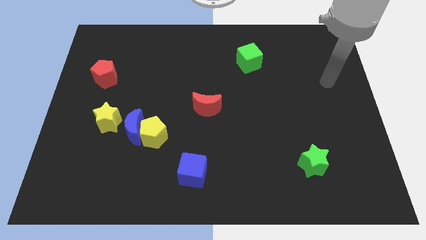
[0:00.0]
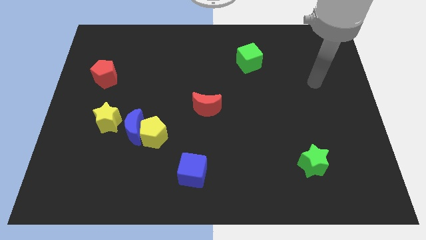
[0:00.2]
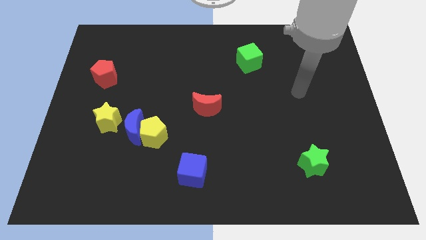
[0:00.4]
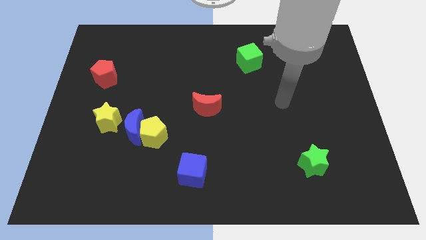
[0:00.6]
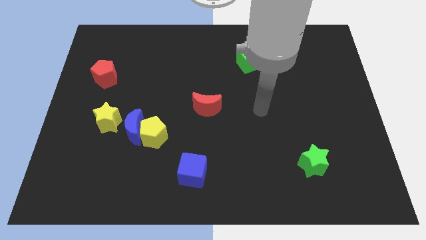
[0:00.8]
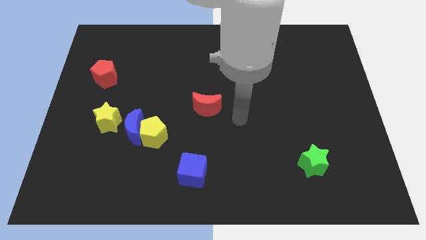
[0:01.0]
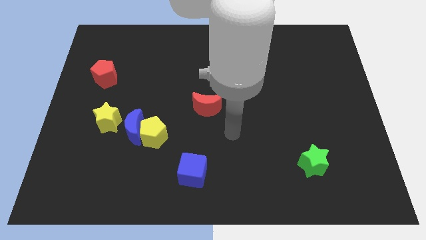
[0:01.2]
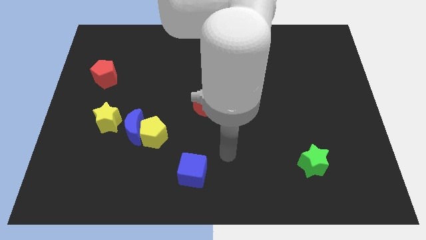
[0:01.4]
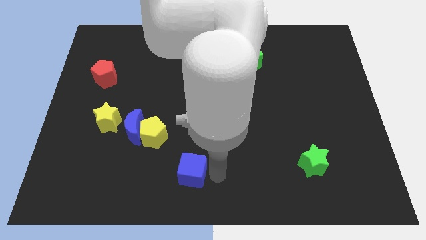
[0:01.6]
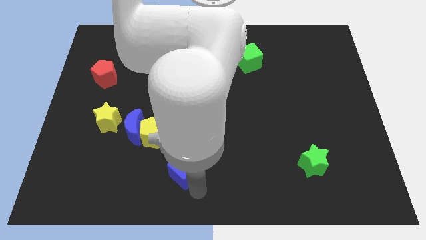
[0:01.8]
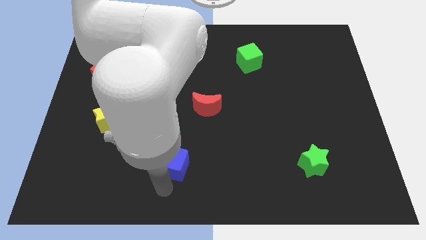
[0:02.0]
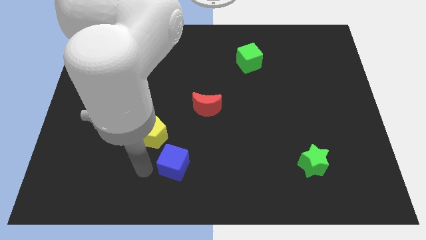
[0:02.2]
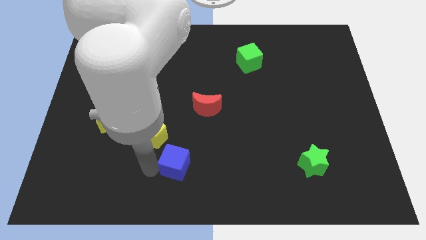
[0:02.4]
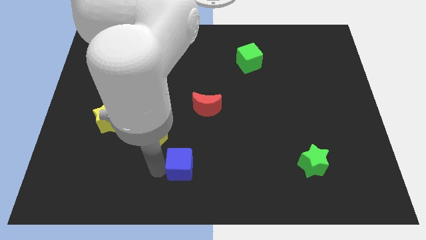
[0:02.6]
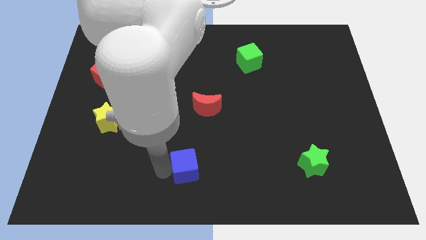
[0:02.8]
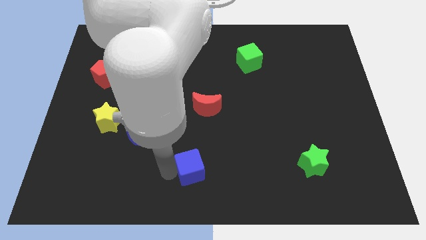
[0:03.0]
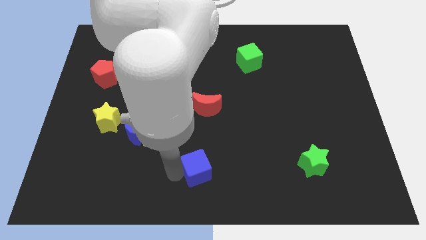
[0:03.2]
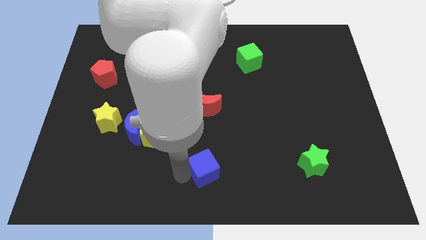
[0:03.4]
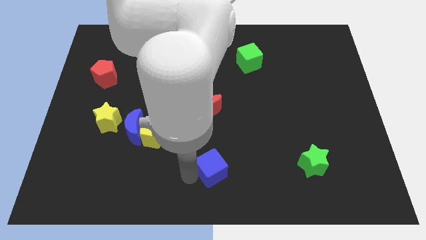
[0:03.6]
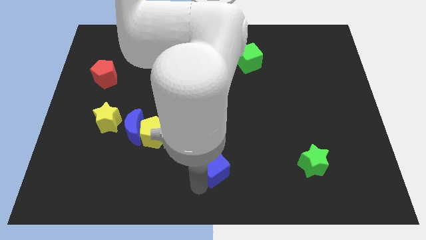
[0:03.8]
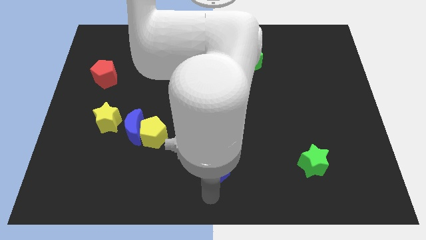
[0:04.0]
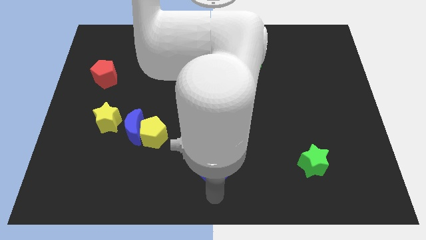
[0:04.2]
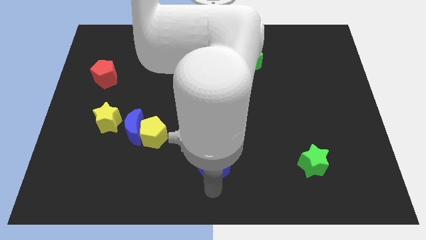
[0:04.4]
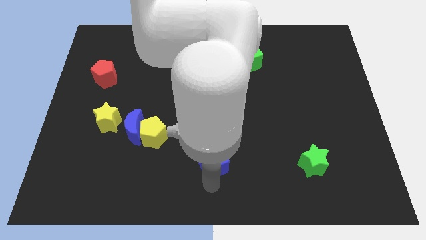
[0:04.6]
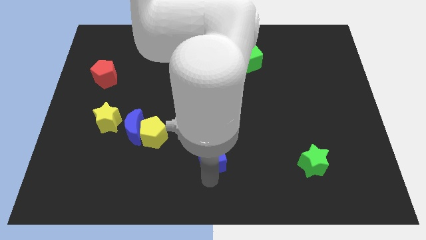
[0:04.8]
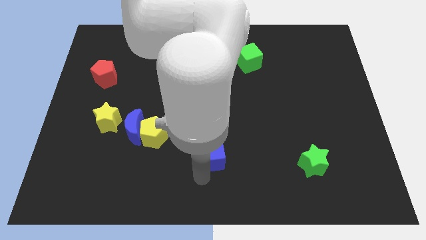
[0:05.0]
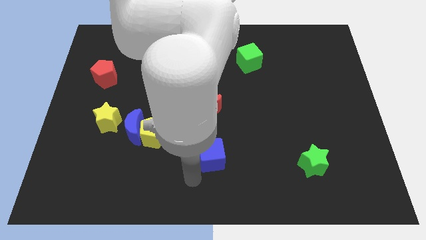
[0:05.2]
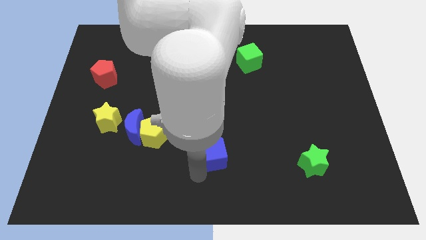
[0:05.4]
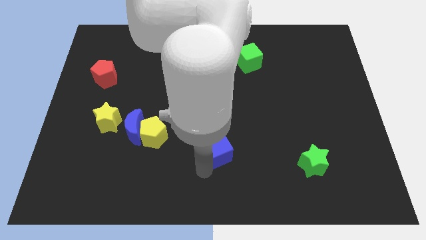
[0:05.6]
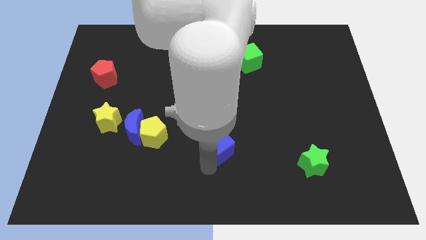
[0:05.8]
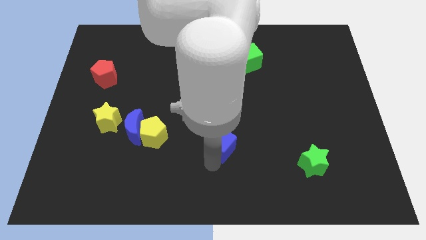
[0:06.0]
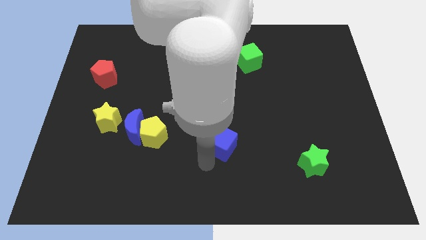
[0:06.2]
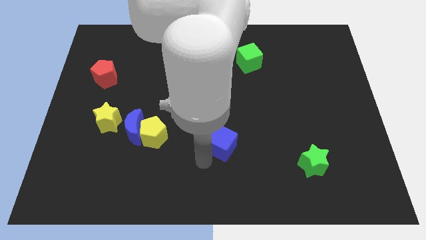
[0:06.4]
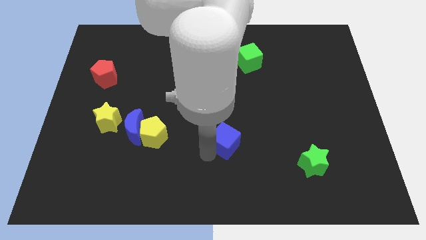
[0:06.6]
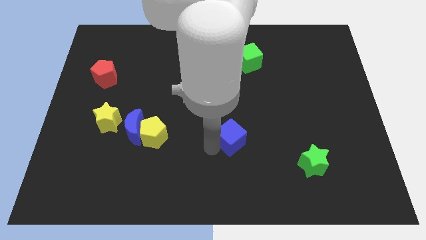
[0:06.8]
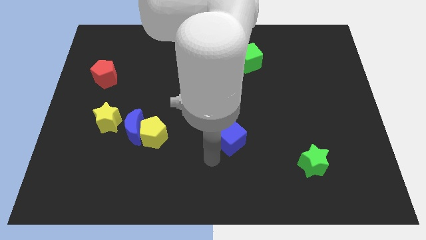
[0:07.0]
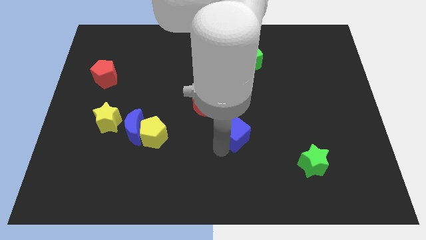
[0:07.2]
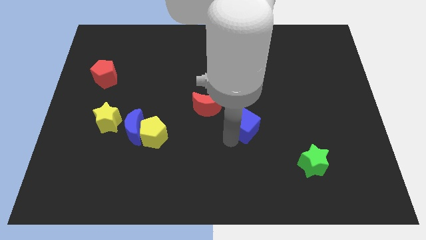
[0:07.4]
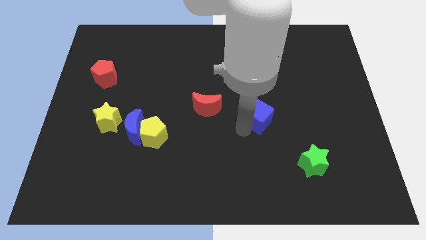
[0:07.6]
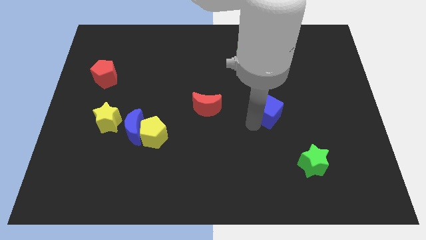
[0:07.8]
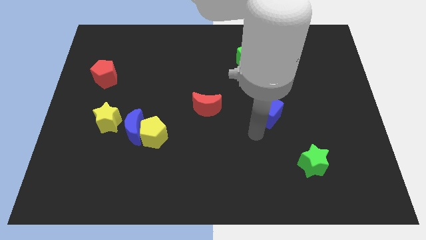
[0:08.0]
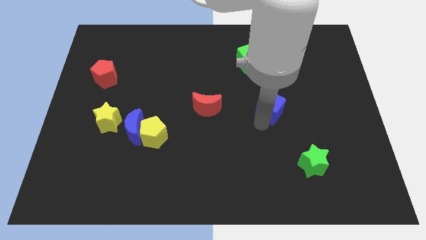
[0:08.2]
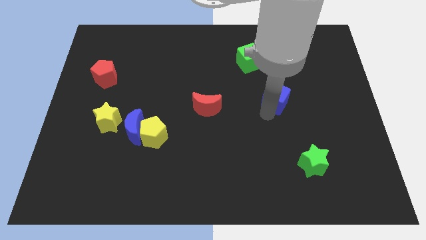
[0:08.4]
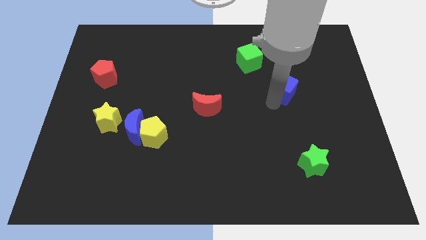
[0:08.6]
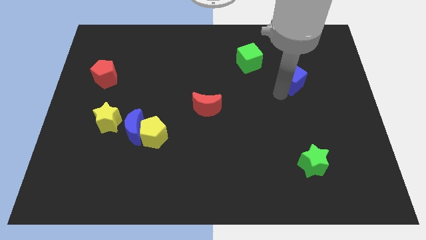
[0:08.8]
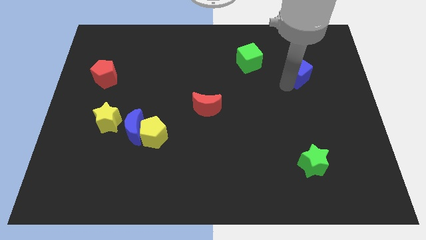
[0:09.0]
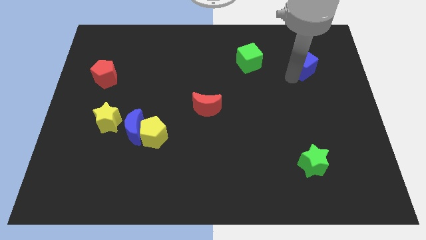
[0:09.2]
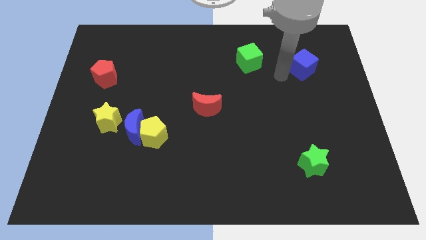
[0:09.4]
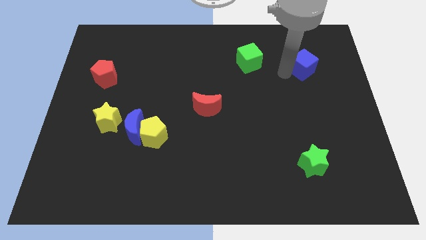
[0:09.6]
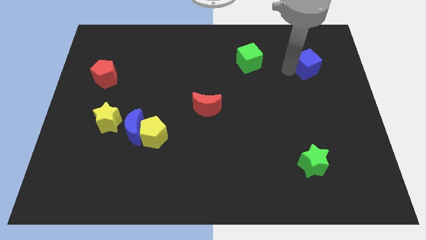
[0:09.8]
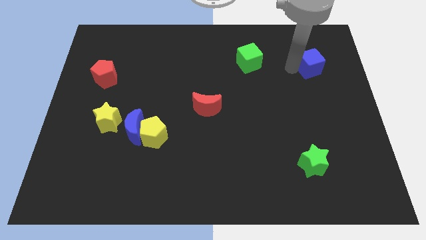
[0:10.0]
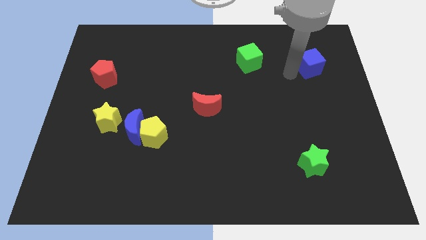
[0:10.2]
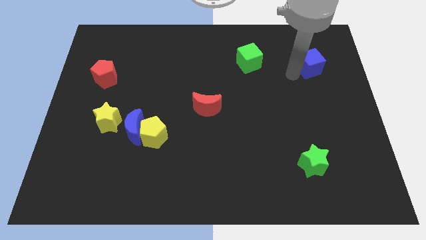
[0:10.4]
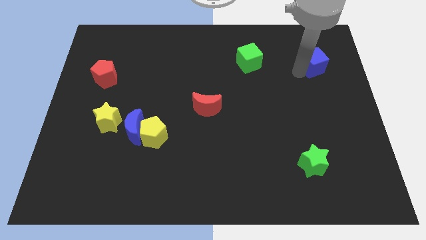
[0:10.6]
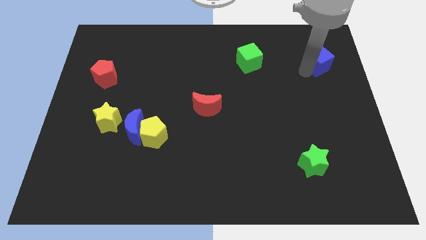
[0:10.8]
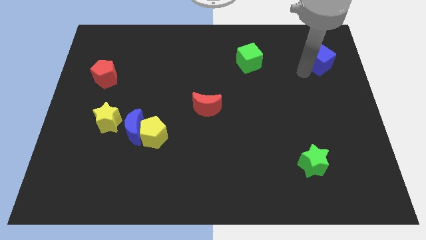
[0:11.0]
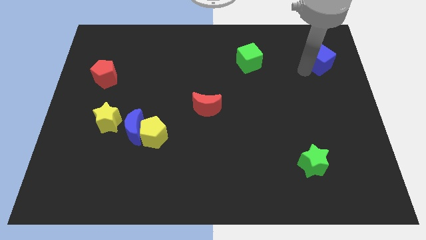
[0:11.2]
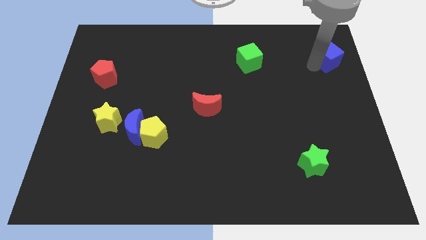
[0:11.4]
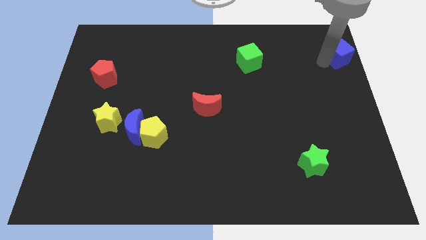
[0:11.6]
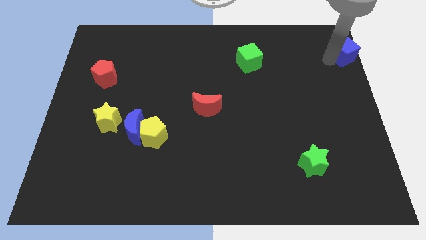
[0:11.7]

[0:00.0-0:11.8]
push the blue cube to the top right of the board
